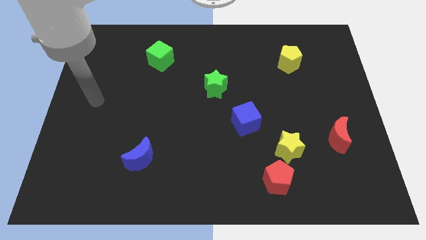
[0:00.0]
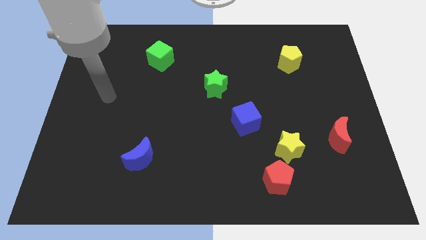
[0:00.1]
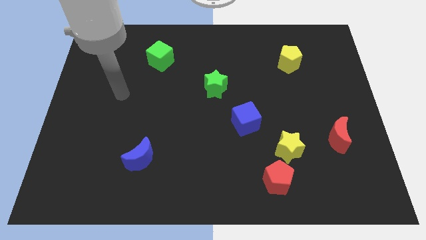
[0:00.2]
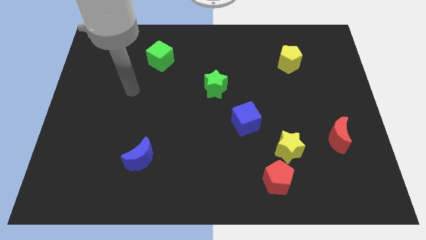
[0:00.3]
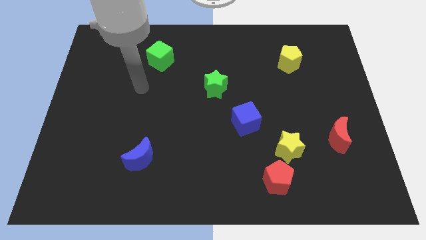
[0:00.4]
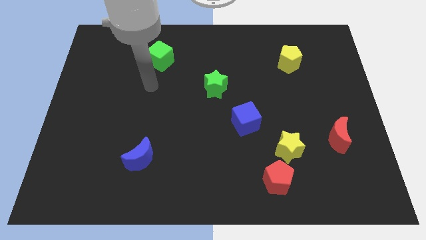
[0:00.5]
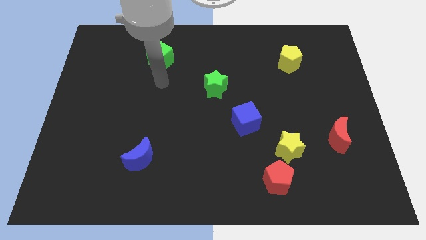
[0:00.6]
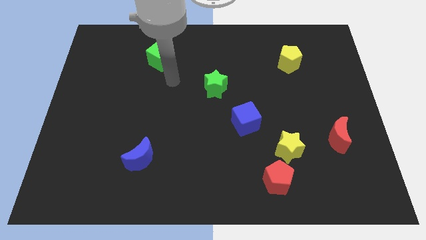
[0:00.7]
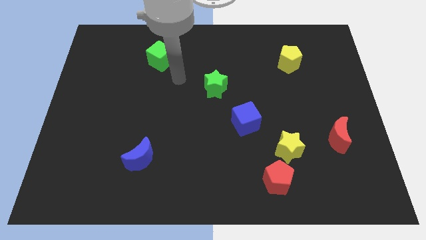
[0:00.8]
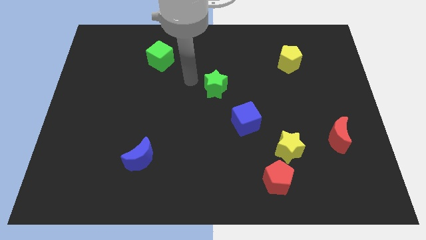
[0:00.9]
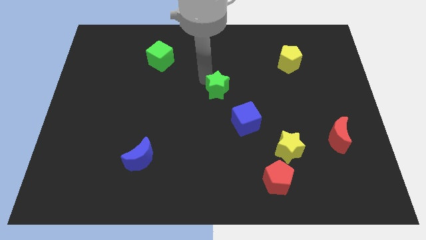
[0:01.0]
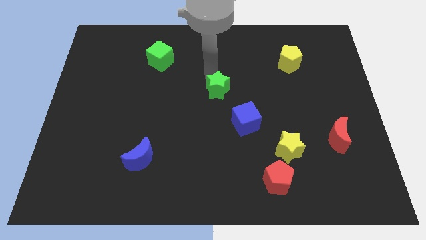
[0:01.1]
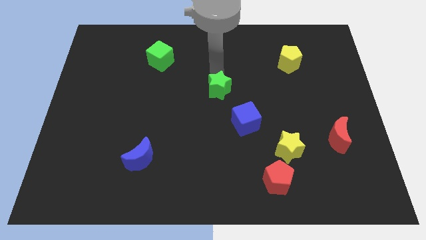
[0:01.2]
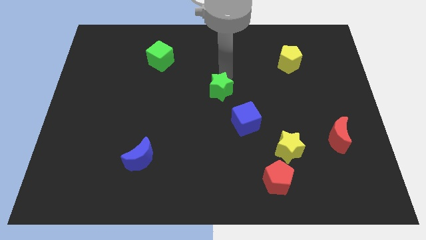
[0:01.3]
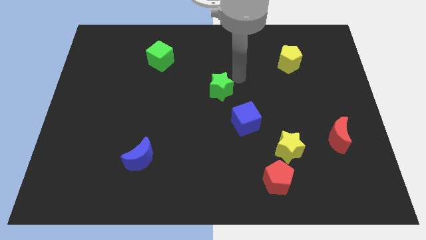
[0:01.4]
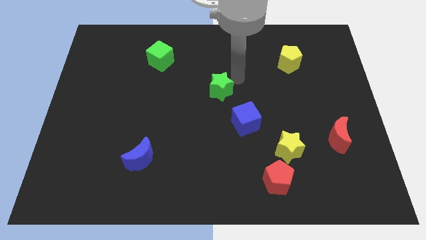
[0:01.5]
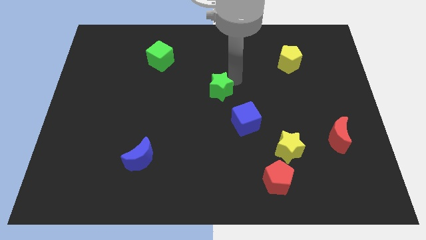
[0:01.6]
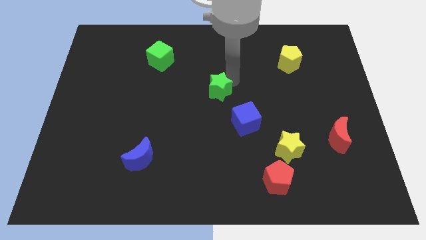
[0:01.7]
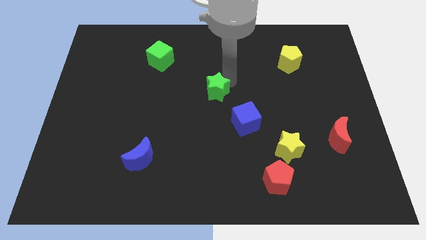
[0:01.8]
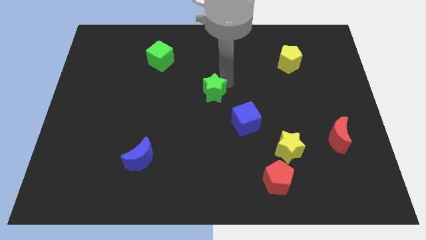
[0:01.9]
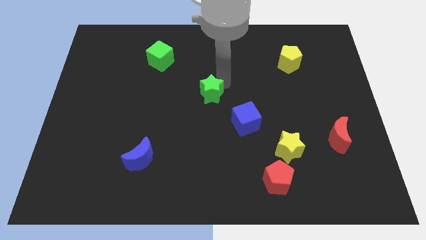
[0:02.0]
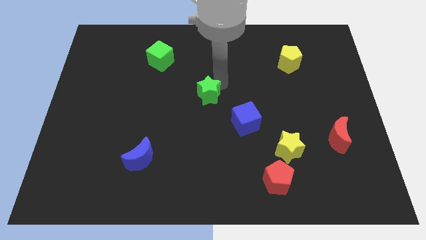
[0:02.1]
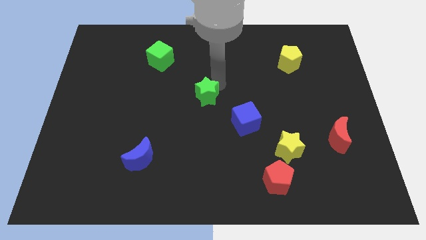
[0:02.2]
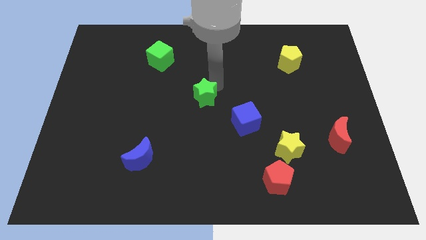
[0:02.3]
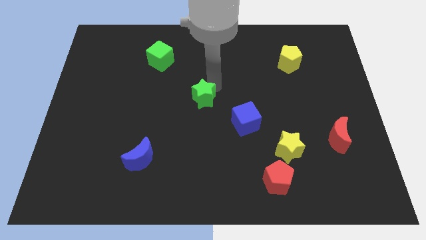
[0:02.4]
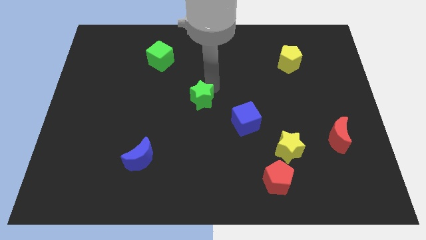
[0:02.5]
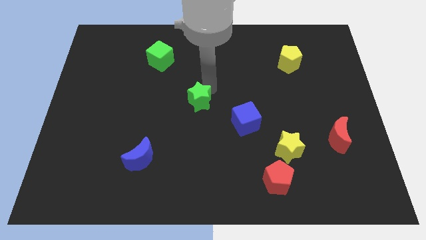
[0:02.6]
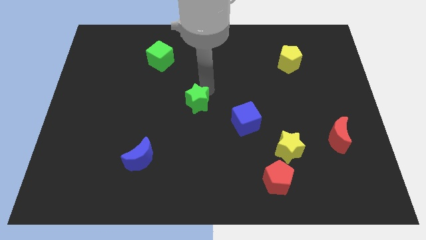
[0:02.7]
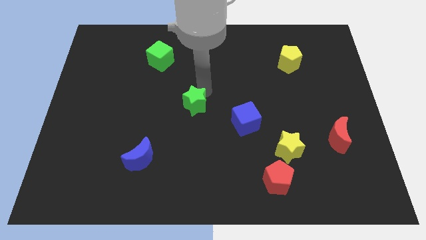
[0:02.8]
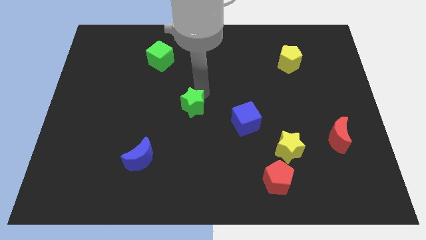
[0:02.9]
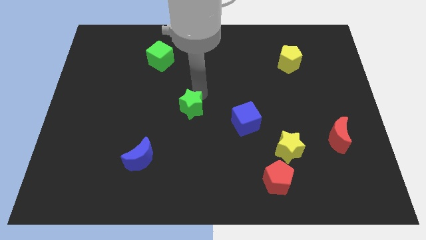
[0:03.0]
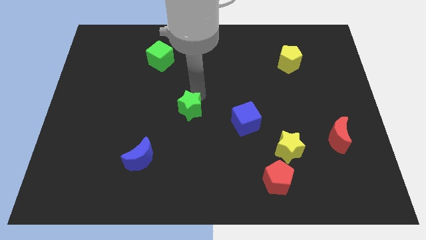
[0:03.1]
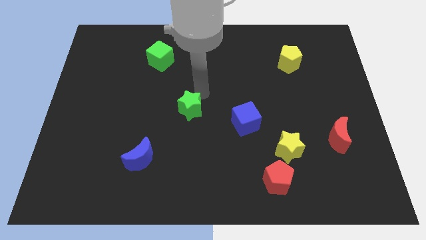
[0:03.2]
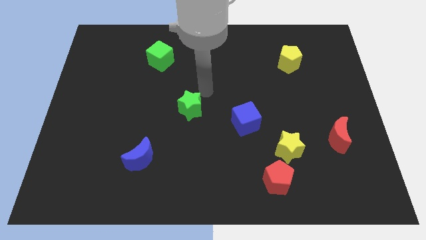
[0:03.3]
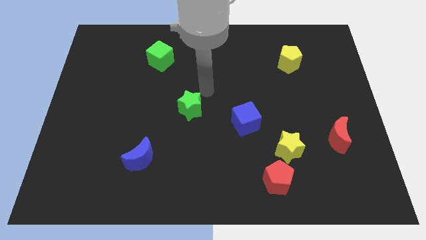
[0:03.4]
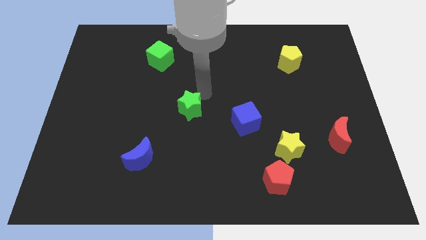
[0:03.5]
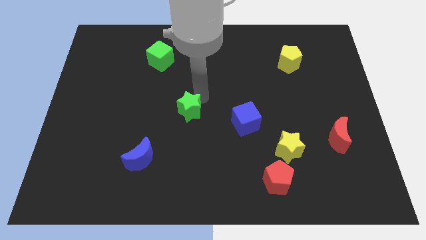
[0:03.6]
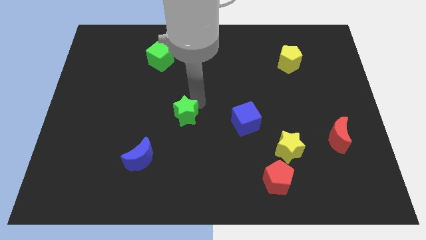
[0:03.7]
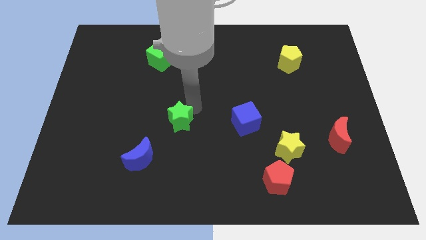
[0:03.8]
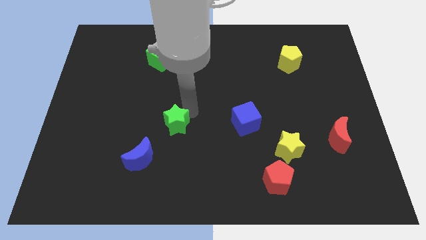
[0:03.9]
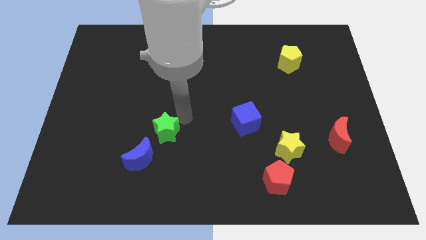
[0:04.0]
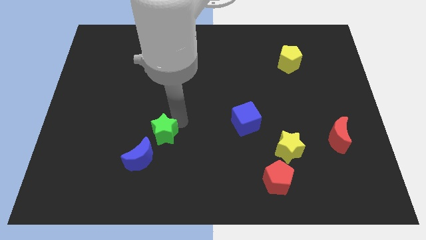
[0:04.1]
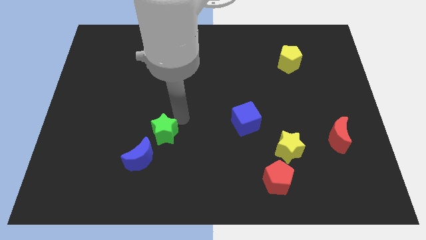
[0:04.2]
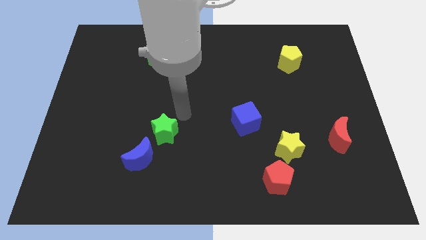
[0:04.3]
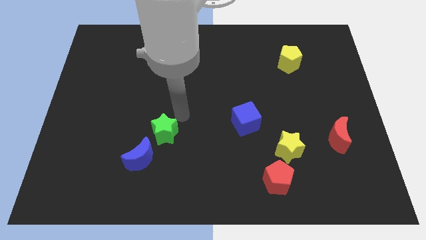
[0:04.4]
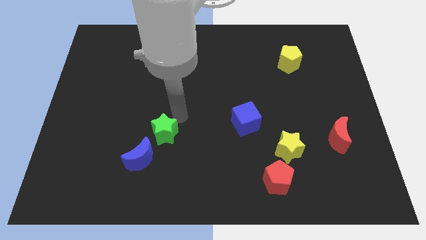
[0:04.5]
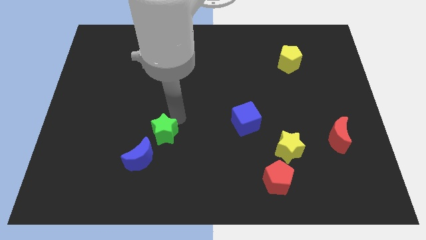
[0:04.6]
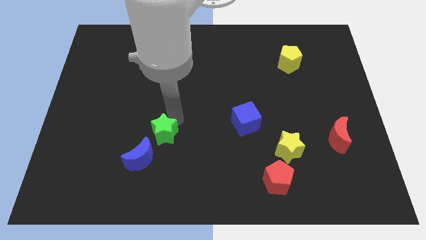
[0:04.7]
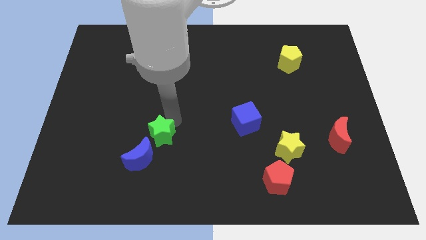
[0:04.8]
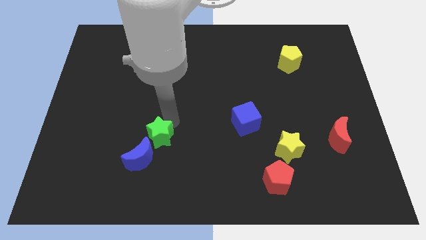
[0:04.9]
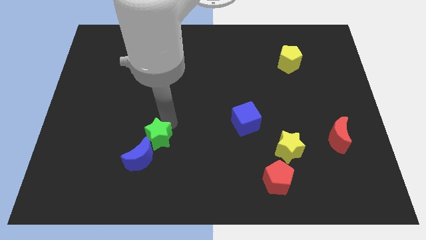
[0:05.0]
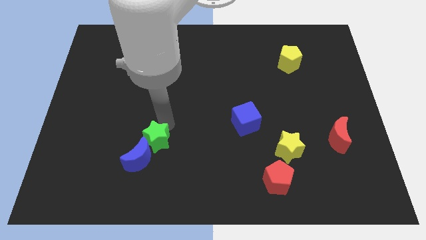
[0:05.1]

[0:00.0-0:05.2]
move the green star to the blue moon

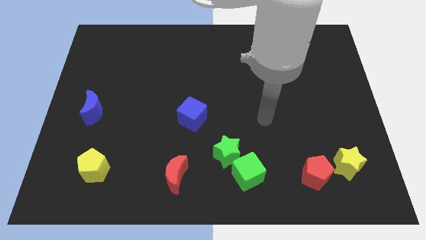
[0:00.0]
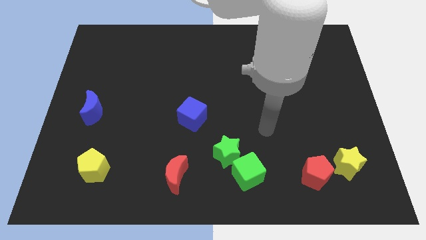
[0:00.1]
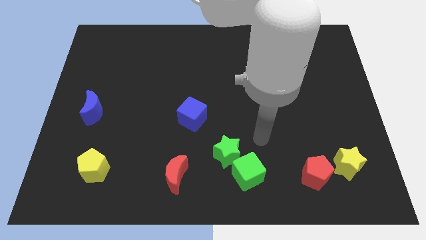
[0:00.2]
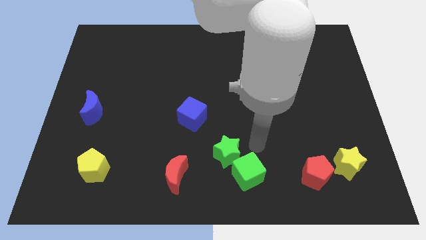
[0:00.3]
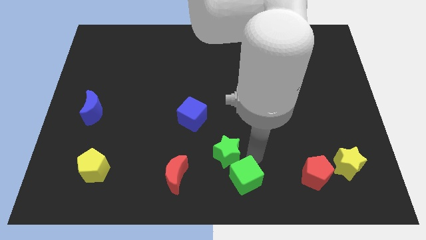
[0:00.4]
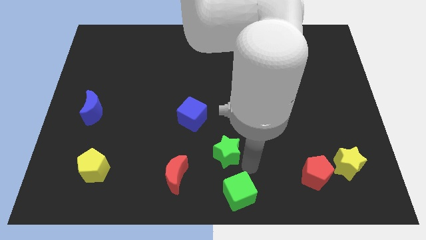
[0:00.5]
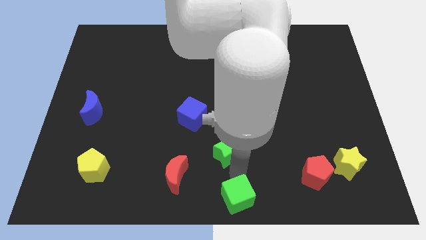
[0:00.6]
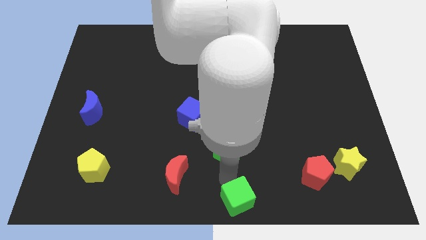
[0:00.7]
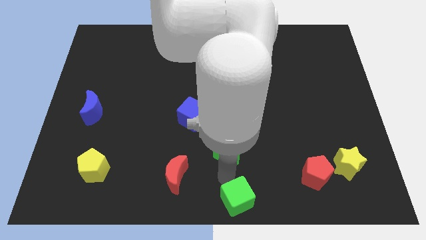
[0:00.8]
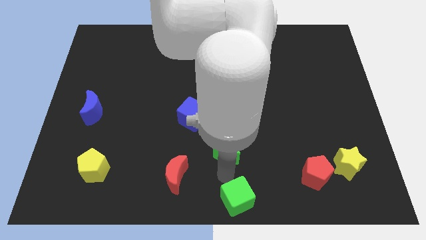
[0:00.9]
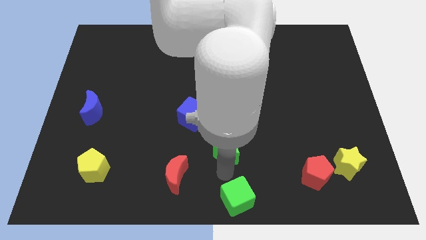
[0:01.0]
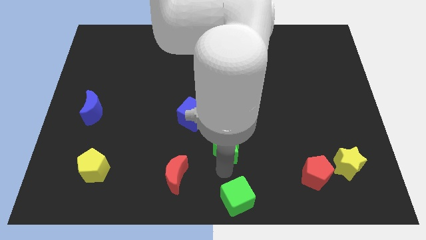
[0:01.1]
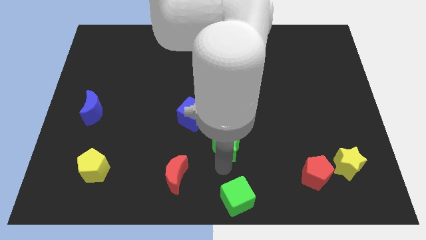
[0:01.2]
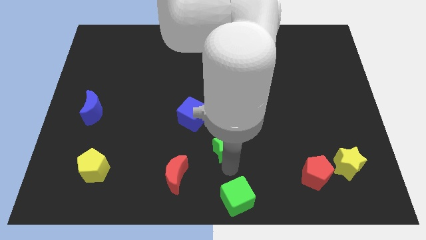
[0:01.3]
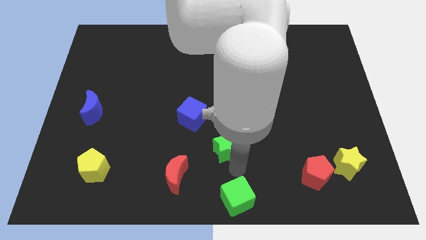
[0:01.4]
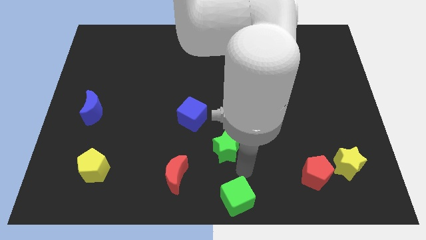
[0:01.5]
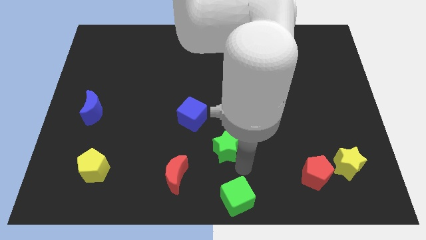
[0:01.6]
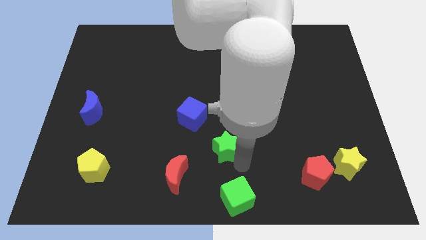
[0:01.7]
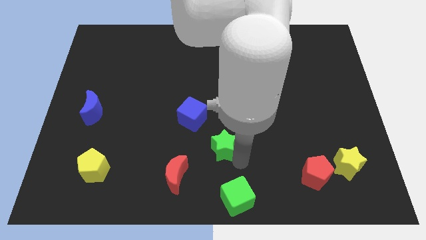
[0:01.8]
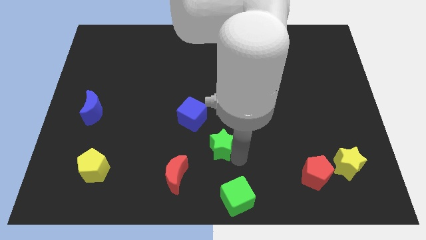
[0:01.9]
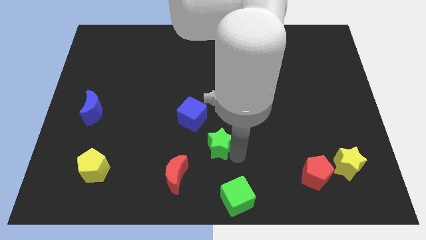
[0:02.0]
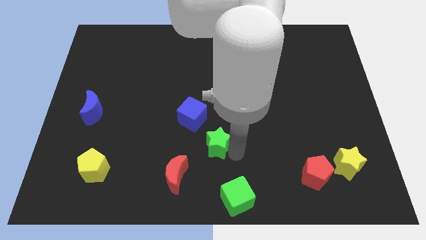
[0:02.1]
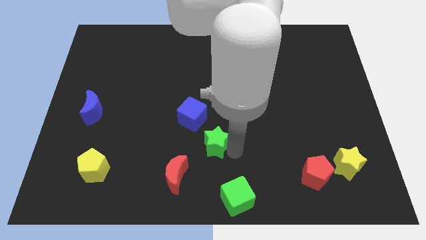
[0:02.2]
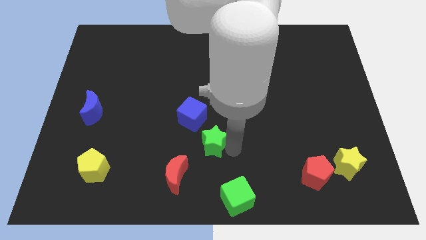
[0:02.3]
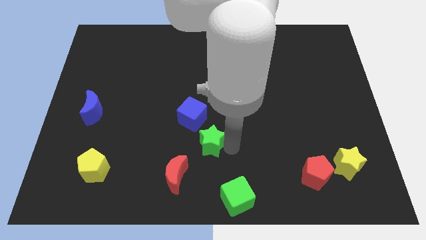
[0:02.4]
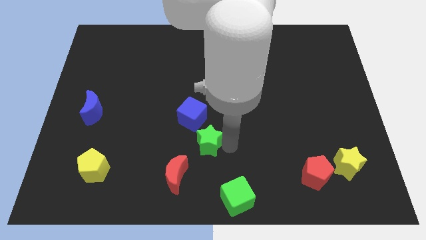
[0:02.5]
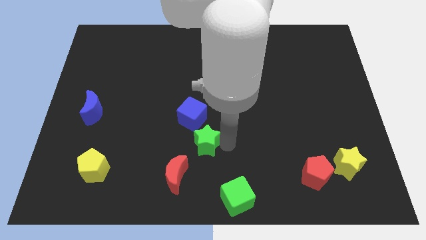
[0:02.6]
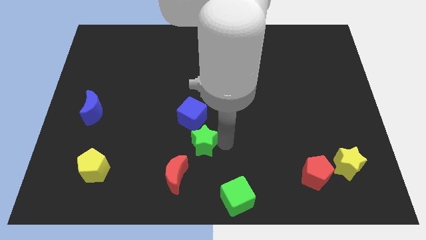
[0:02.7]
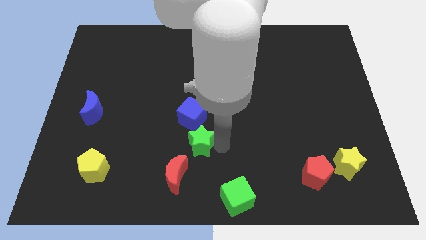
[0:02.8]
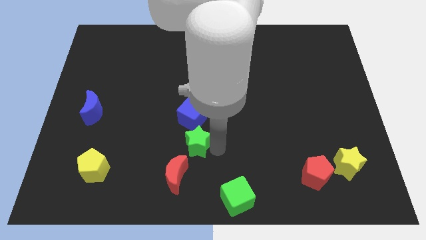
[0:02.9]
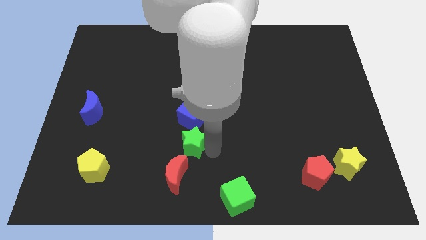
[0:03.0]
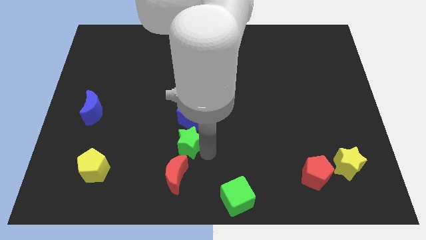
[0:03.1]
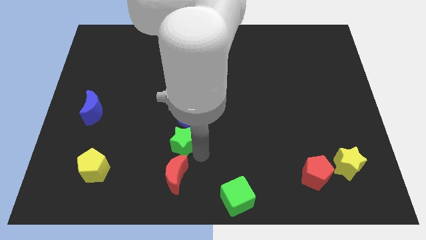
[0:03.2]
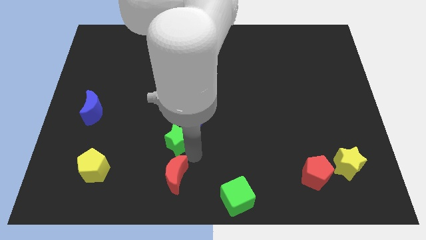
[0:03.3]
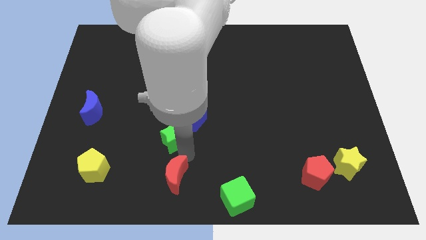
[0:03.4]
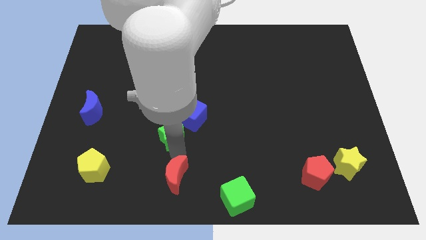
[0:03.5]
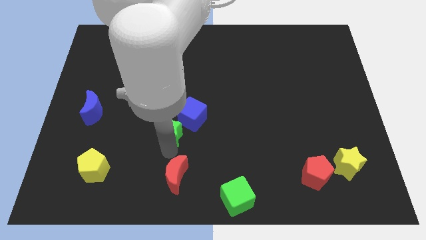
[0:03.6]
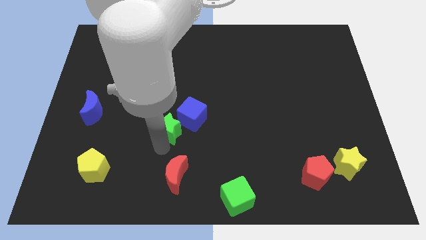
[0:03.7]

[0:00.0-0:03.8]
slide the green star next to the blue cube
